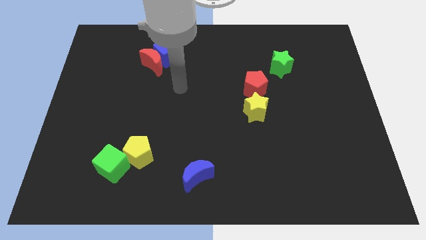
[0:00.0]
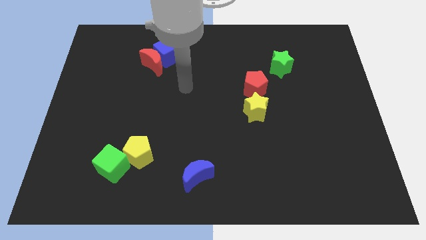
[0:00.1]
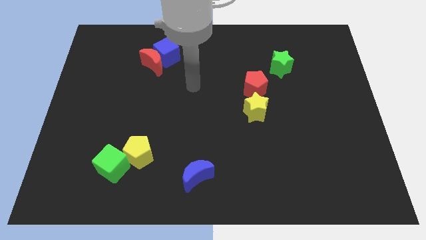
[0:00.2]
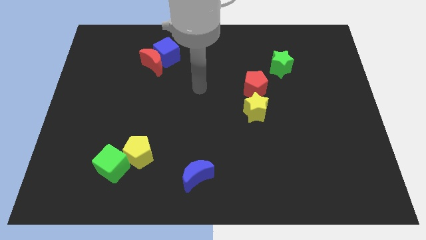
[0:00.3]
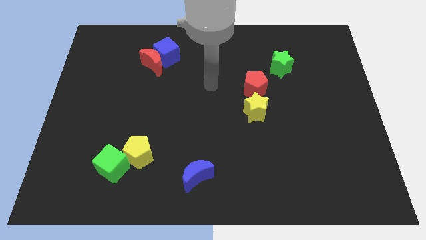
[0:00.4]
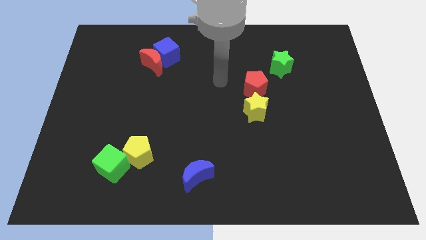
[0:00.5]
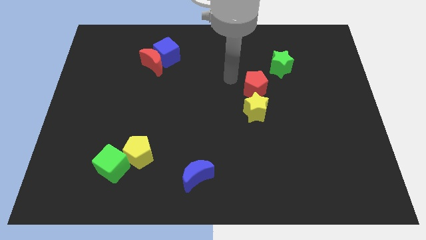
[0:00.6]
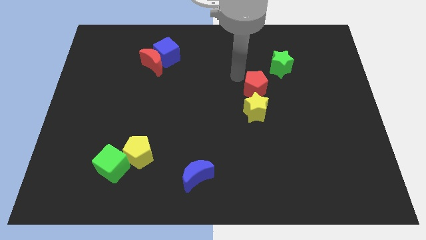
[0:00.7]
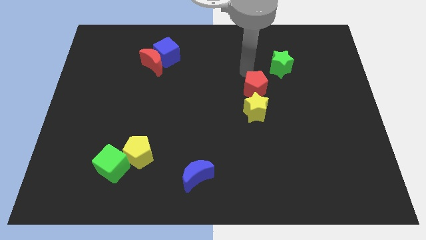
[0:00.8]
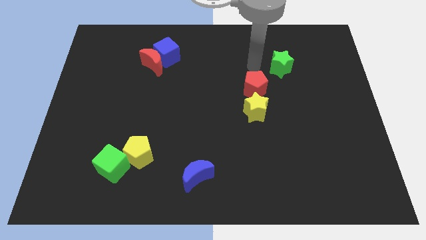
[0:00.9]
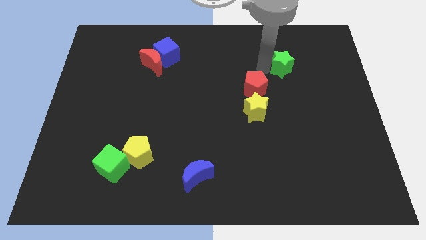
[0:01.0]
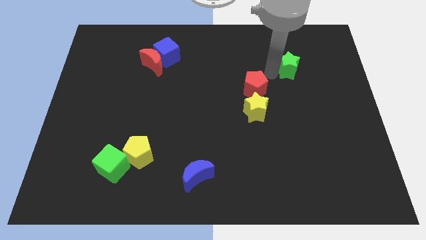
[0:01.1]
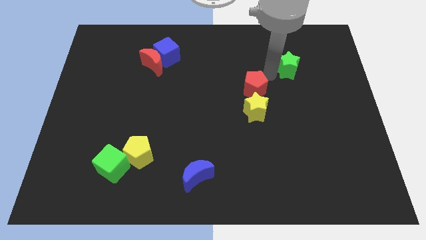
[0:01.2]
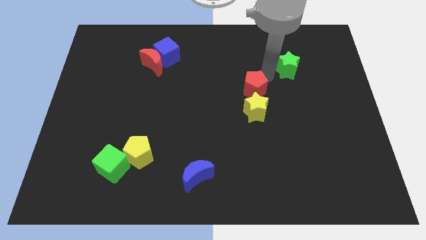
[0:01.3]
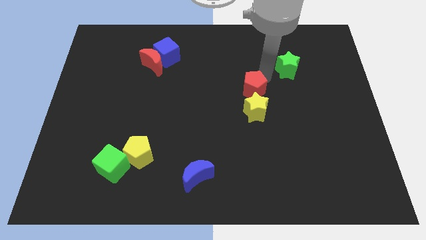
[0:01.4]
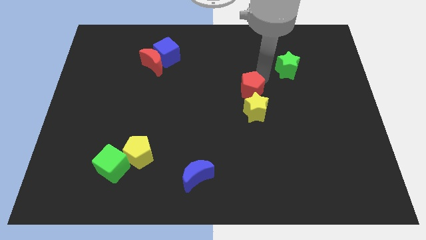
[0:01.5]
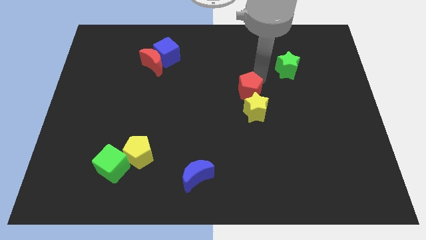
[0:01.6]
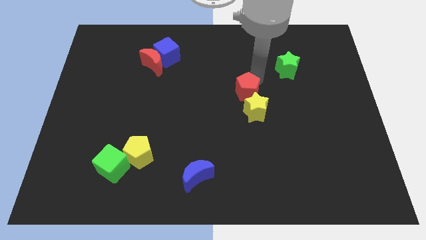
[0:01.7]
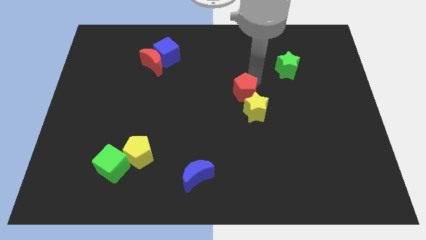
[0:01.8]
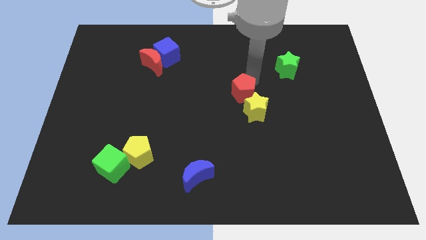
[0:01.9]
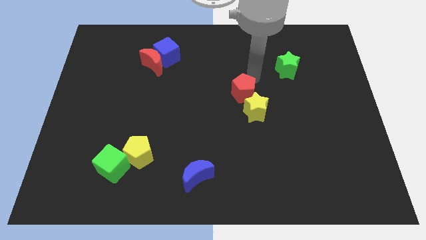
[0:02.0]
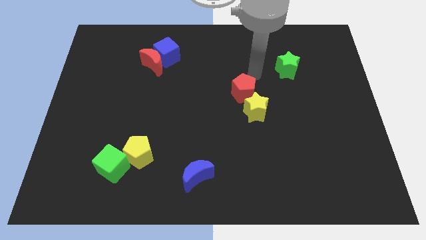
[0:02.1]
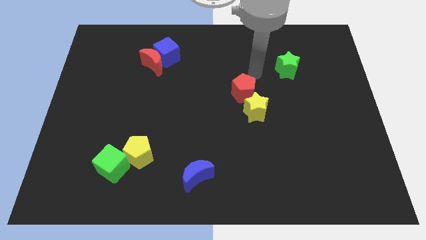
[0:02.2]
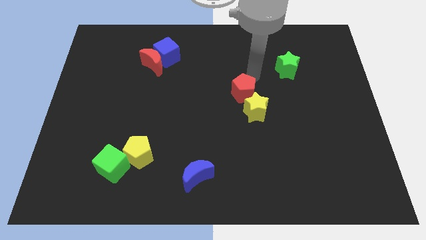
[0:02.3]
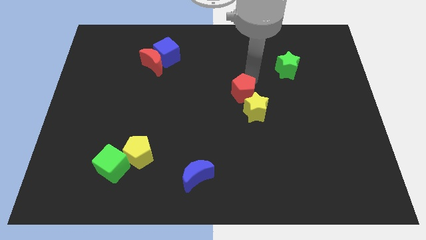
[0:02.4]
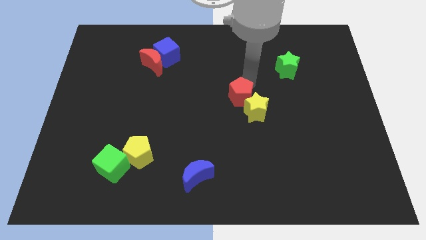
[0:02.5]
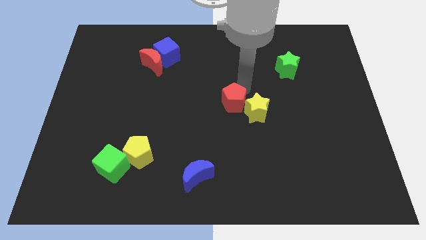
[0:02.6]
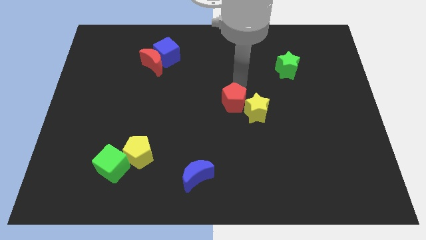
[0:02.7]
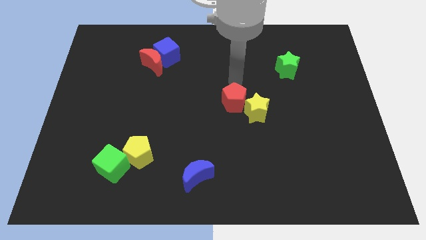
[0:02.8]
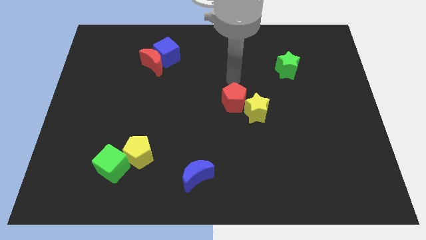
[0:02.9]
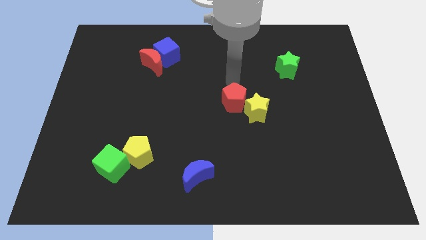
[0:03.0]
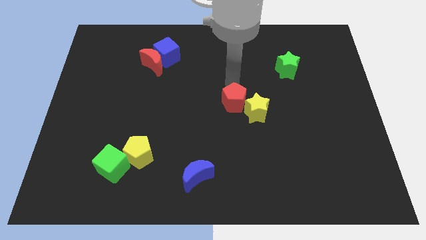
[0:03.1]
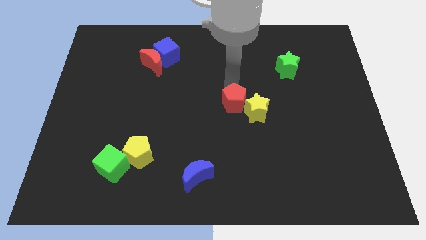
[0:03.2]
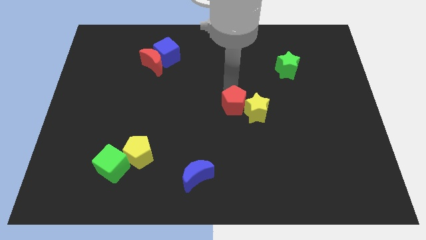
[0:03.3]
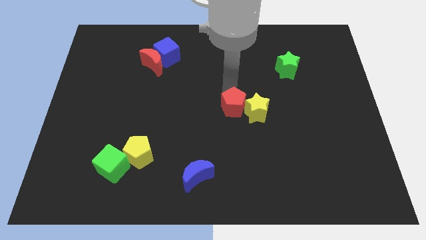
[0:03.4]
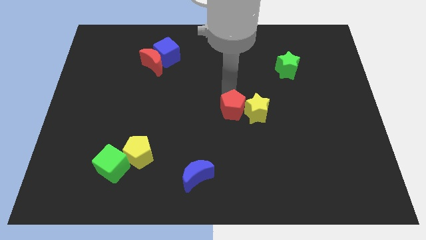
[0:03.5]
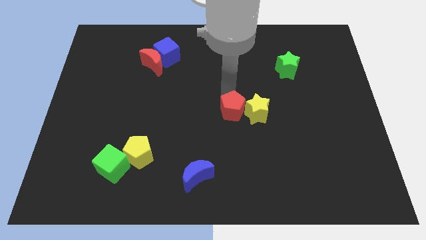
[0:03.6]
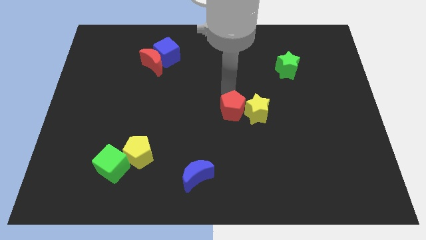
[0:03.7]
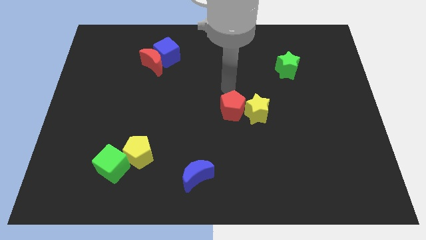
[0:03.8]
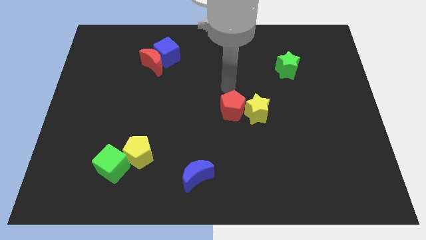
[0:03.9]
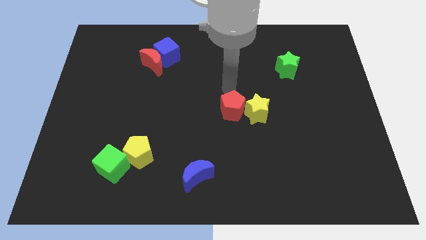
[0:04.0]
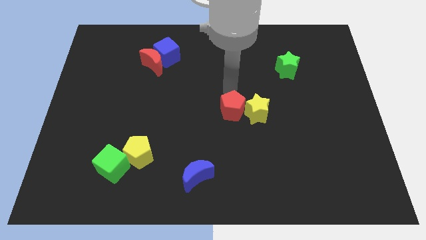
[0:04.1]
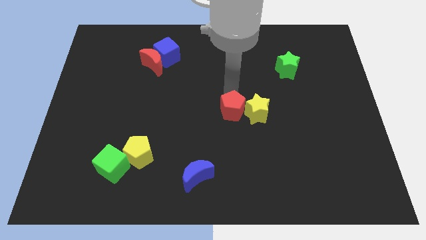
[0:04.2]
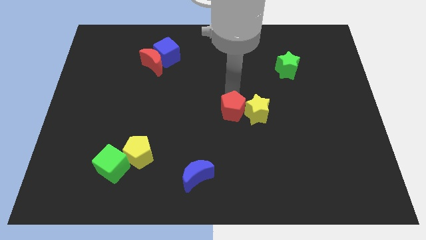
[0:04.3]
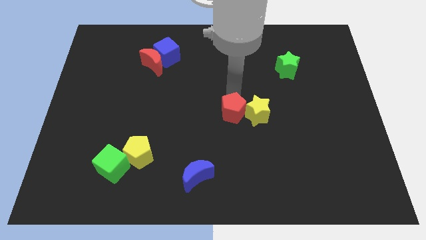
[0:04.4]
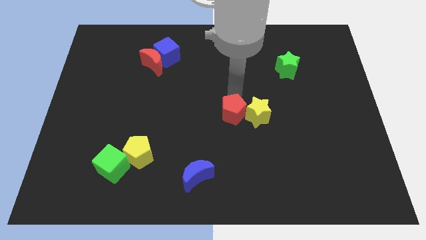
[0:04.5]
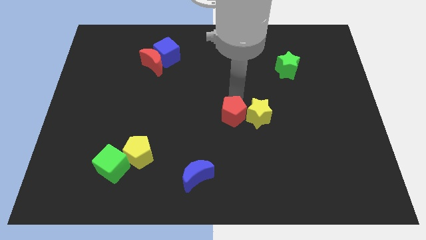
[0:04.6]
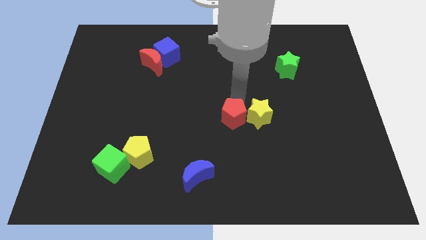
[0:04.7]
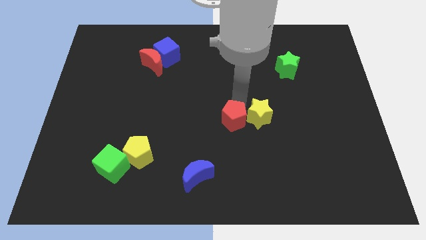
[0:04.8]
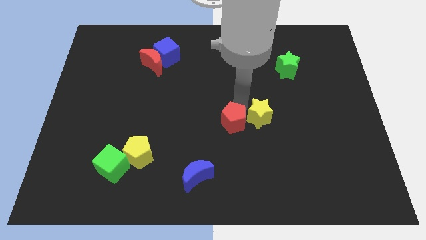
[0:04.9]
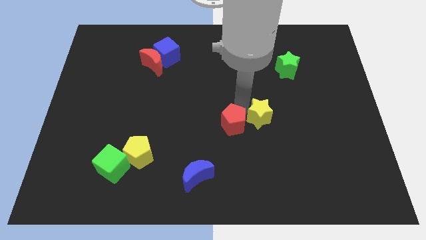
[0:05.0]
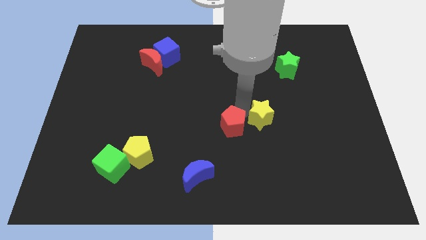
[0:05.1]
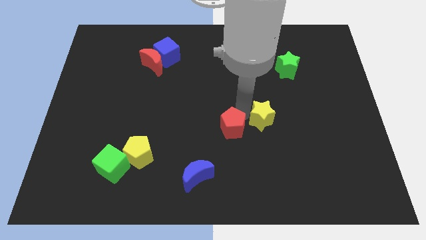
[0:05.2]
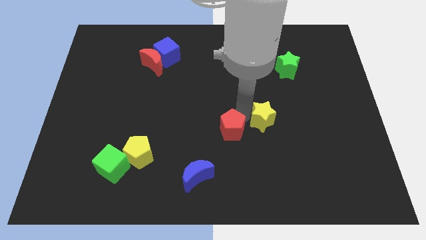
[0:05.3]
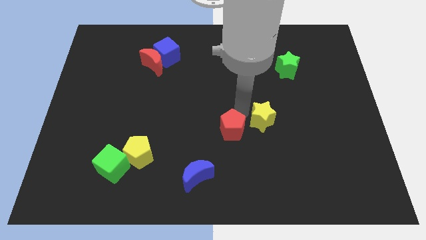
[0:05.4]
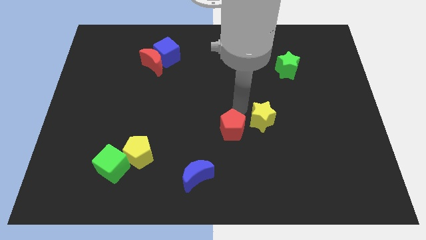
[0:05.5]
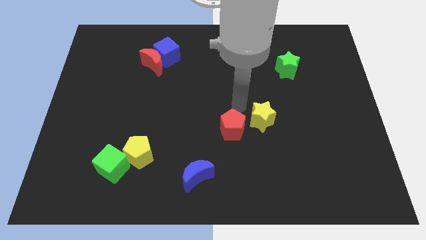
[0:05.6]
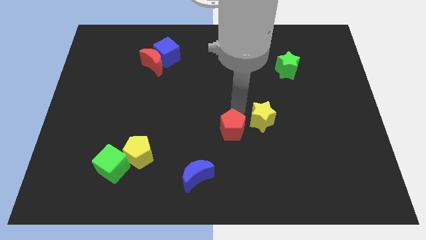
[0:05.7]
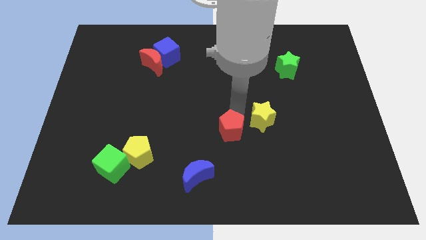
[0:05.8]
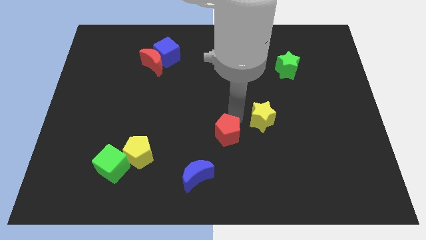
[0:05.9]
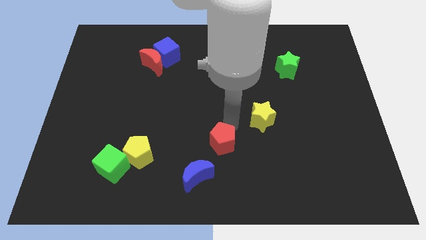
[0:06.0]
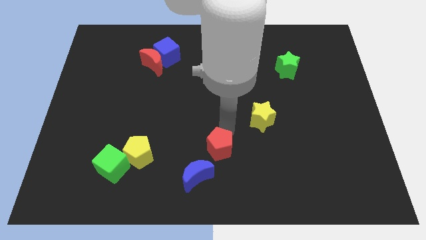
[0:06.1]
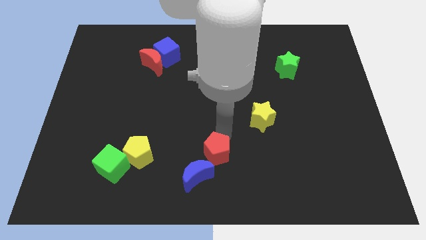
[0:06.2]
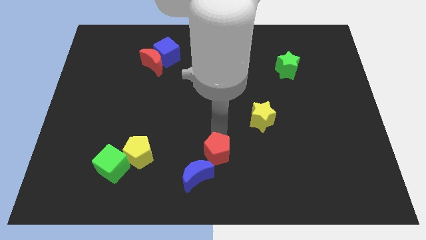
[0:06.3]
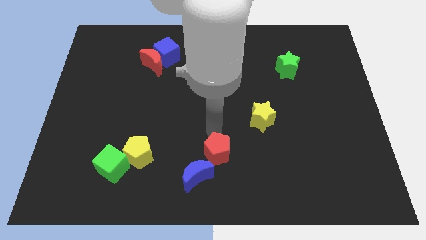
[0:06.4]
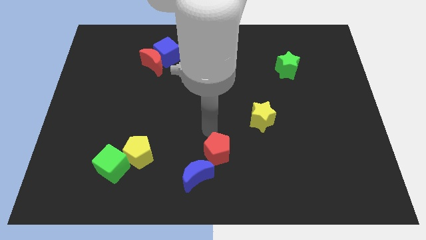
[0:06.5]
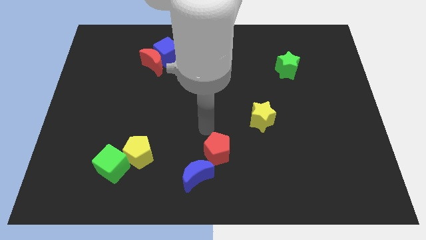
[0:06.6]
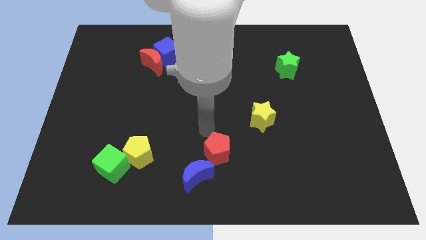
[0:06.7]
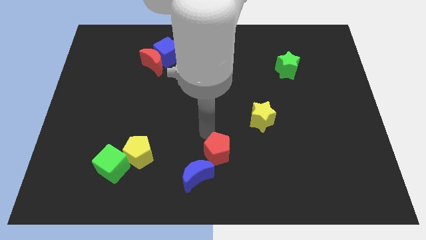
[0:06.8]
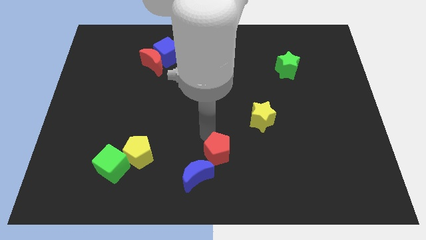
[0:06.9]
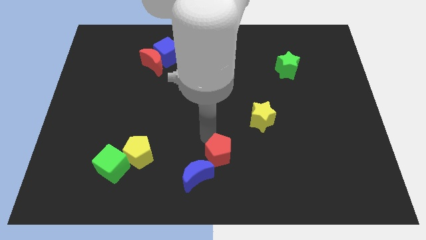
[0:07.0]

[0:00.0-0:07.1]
move the red pentagon to the bottom
